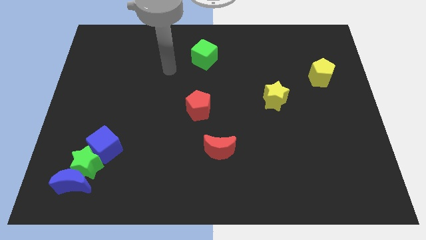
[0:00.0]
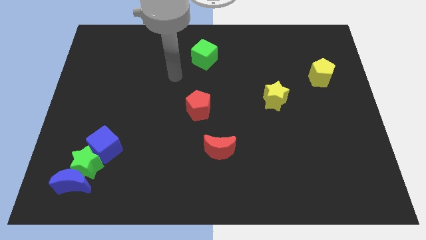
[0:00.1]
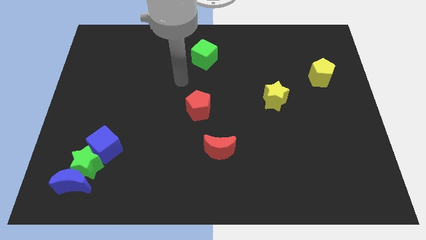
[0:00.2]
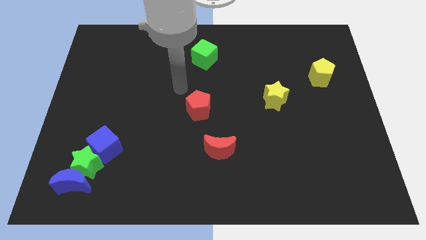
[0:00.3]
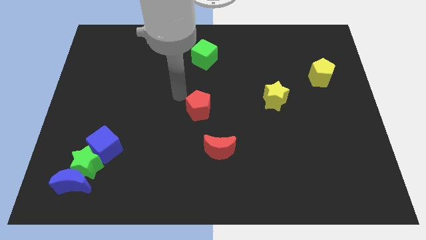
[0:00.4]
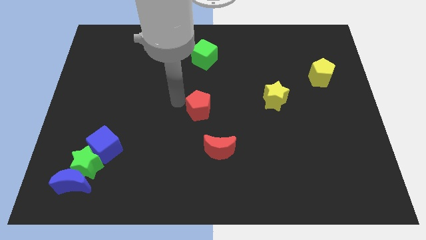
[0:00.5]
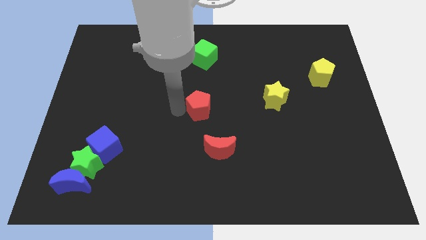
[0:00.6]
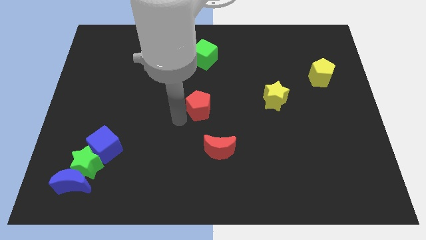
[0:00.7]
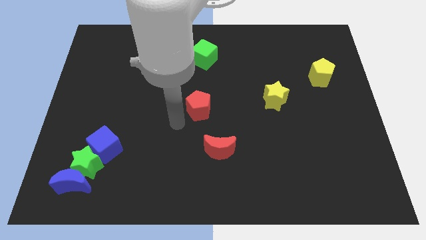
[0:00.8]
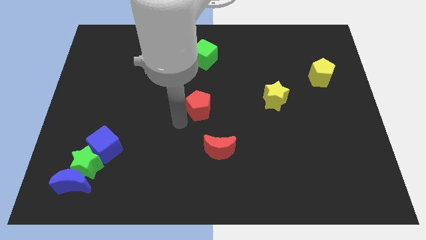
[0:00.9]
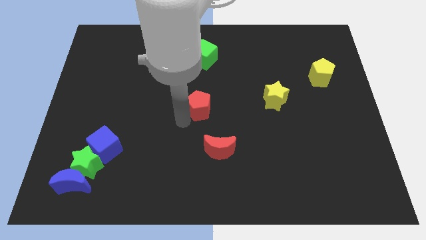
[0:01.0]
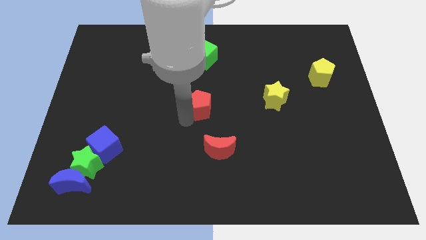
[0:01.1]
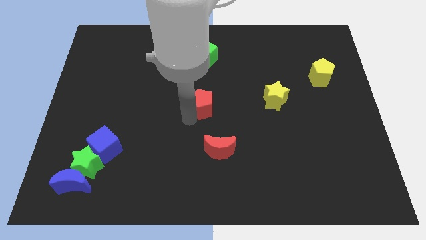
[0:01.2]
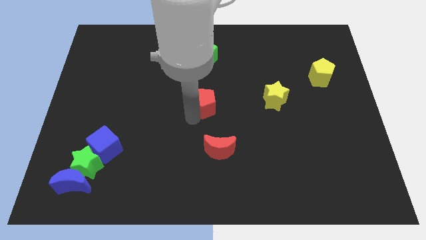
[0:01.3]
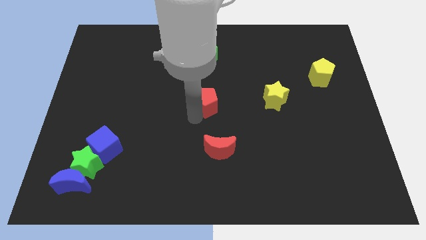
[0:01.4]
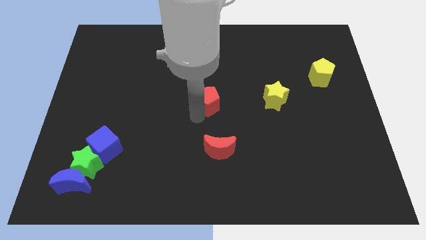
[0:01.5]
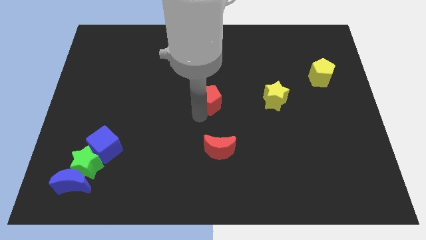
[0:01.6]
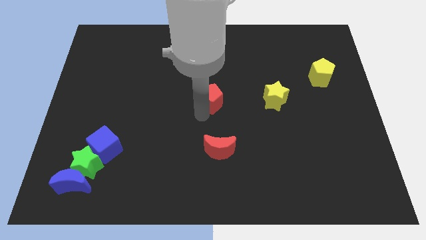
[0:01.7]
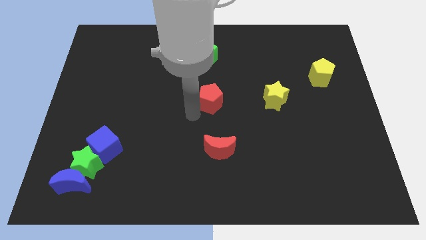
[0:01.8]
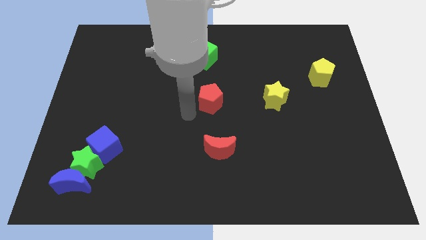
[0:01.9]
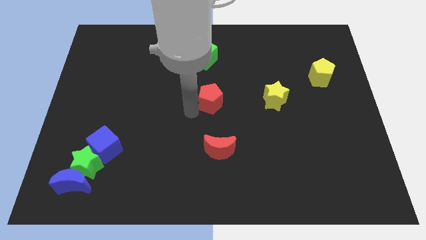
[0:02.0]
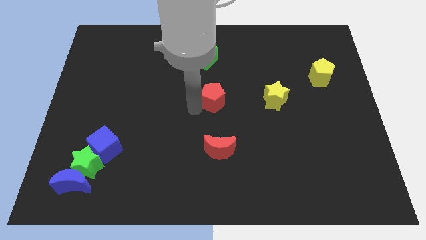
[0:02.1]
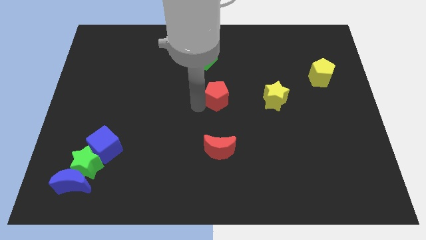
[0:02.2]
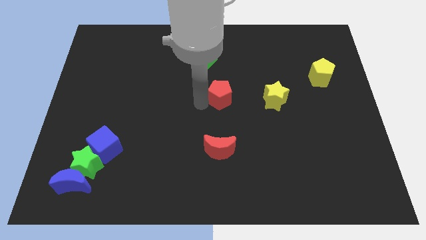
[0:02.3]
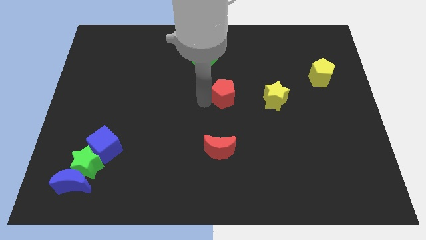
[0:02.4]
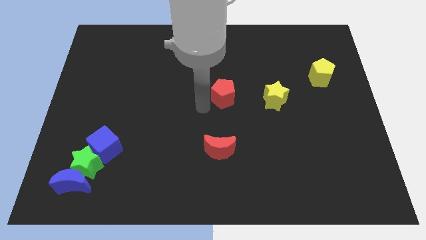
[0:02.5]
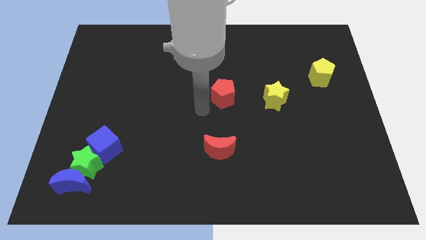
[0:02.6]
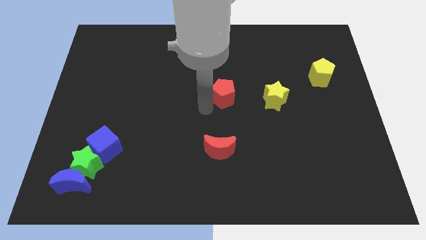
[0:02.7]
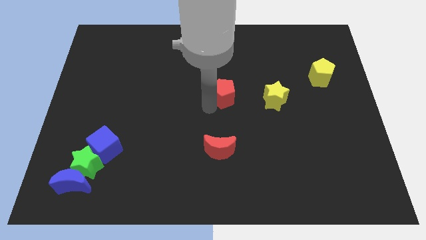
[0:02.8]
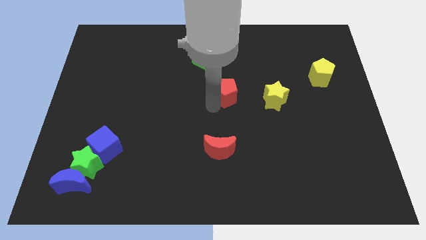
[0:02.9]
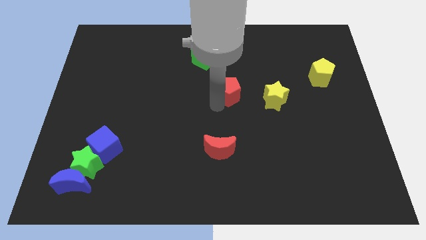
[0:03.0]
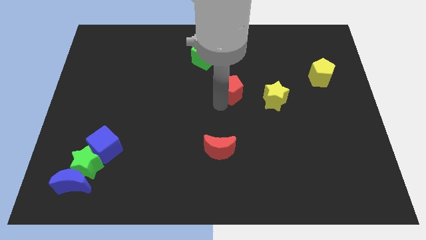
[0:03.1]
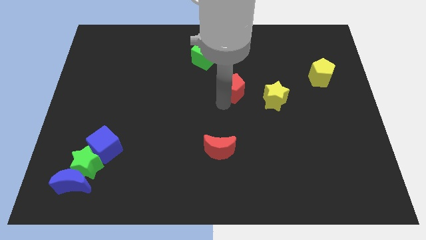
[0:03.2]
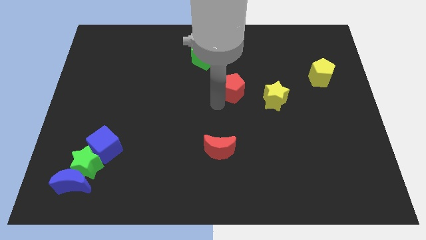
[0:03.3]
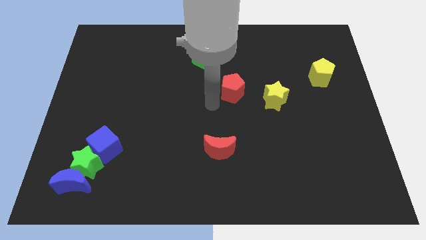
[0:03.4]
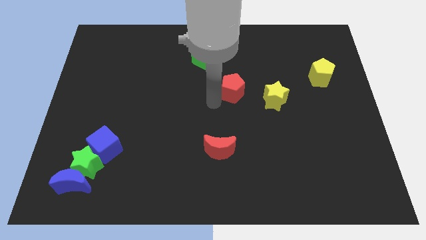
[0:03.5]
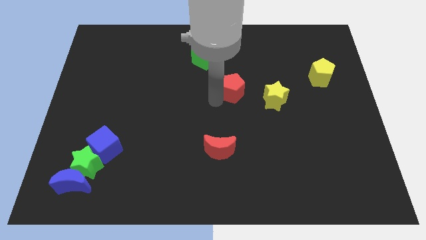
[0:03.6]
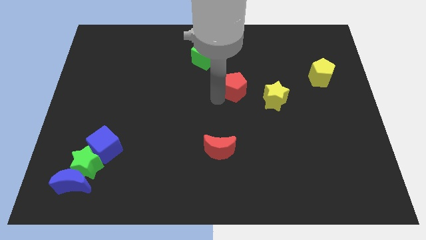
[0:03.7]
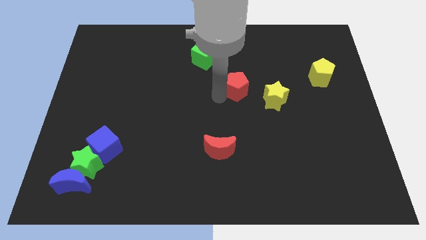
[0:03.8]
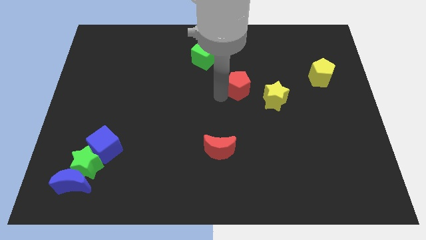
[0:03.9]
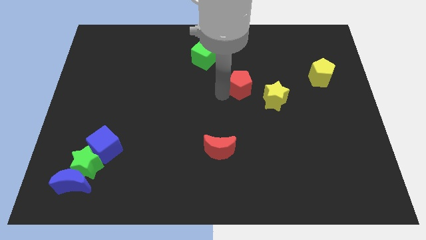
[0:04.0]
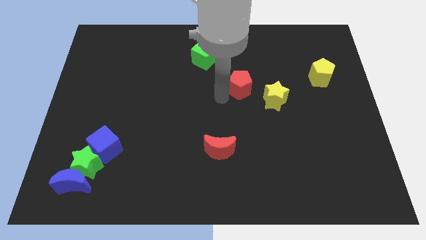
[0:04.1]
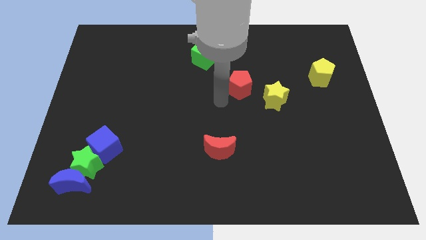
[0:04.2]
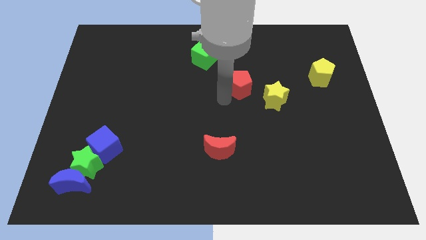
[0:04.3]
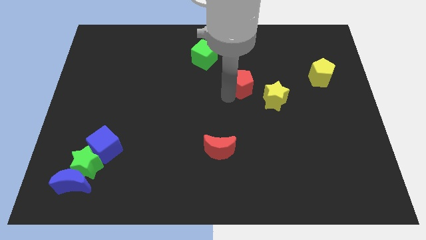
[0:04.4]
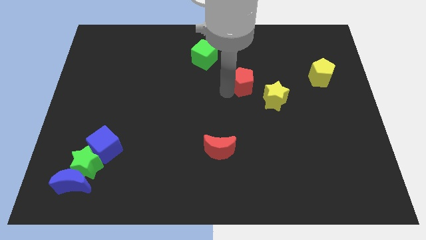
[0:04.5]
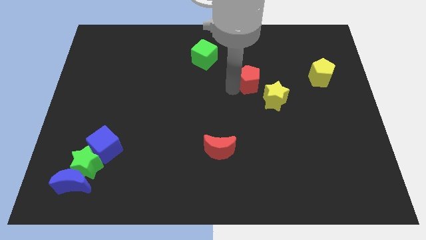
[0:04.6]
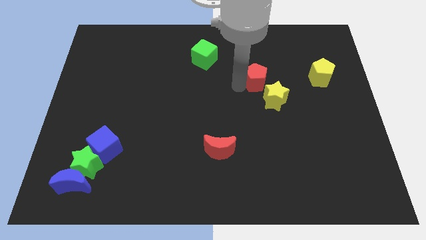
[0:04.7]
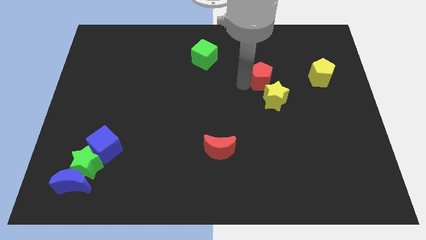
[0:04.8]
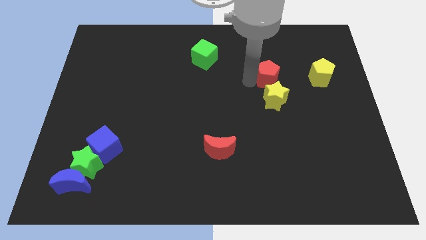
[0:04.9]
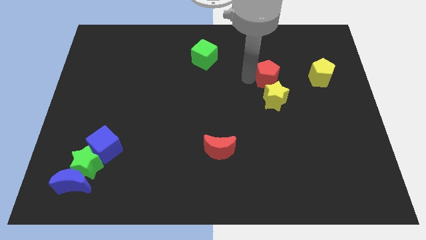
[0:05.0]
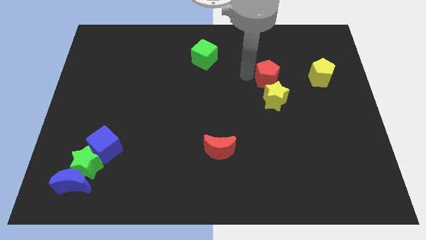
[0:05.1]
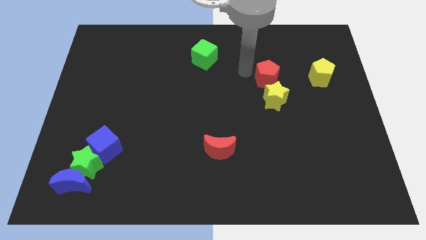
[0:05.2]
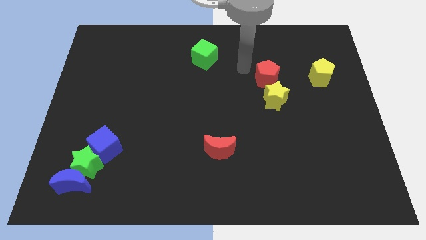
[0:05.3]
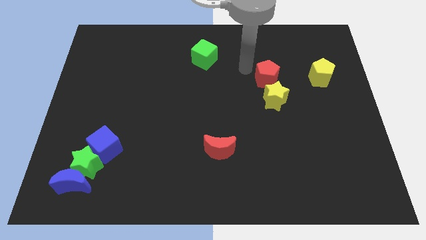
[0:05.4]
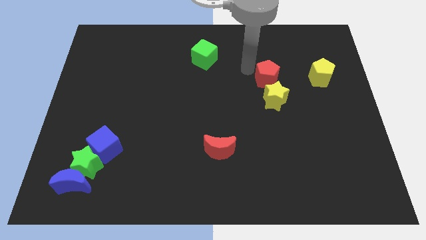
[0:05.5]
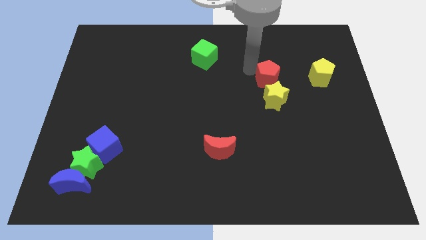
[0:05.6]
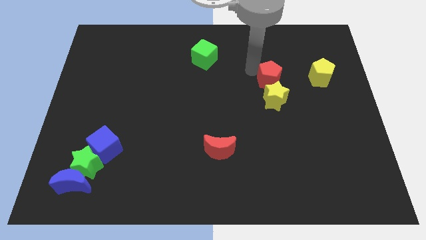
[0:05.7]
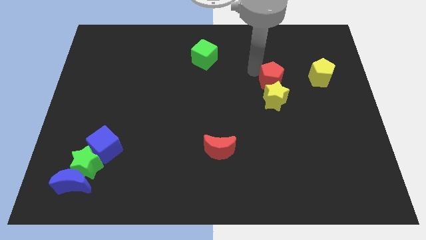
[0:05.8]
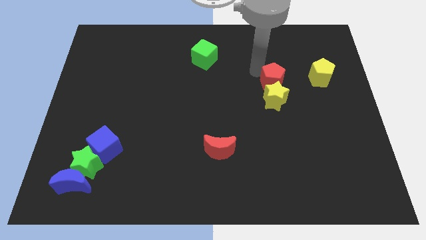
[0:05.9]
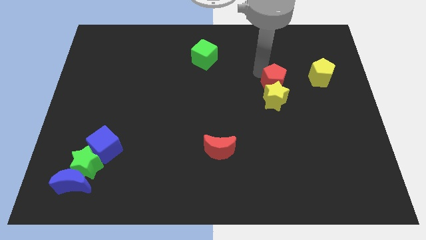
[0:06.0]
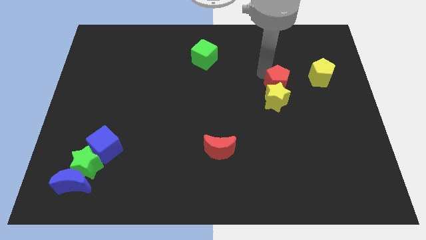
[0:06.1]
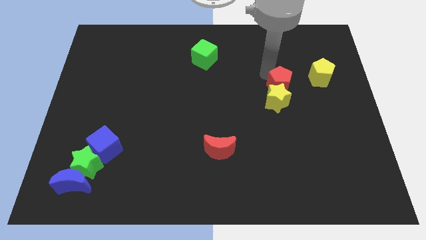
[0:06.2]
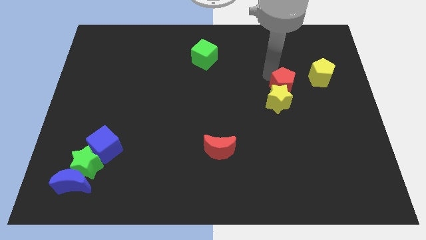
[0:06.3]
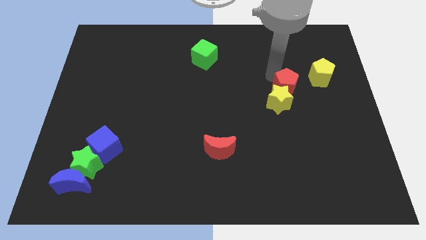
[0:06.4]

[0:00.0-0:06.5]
put the red pentagon diagonally down and to the left of the yellow pentagon

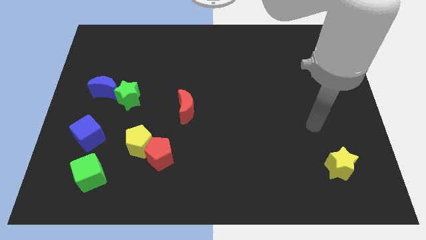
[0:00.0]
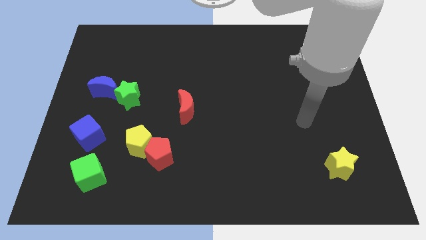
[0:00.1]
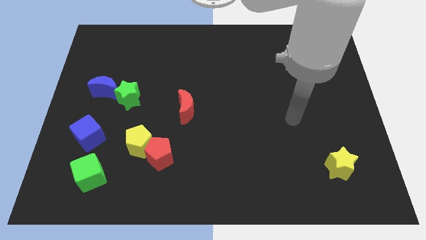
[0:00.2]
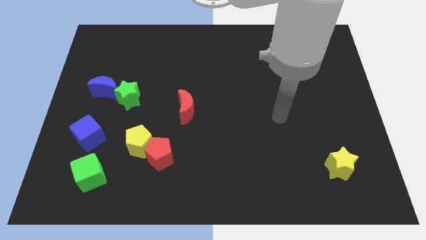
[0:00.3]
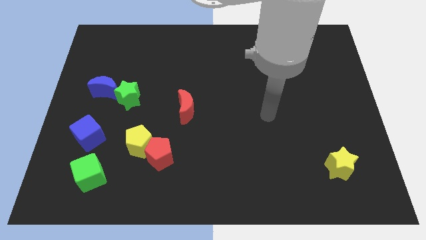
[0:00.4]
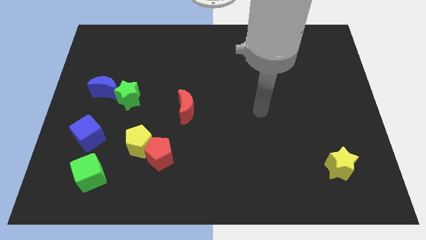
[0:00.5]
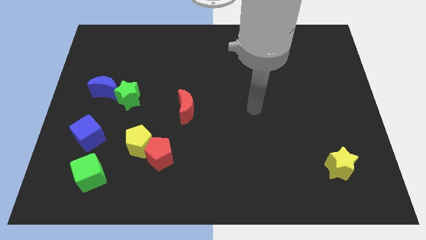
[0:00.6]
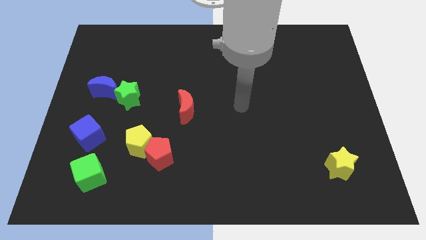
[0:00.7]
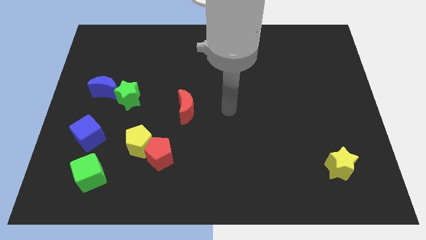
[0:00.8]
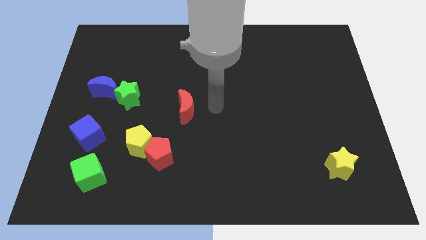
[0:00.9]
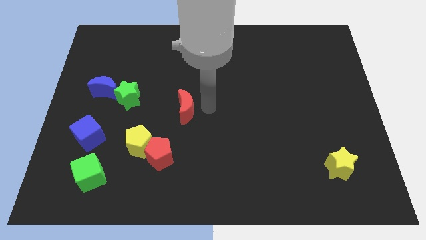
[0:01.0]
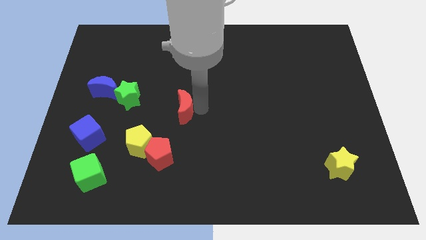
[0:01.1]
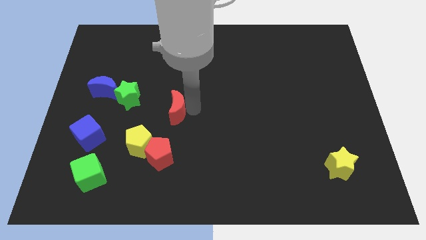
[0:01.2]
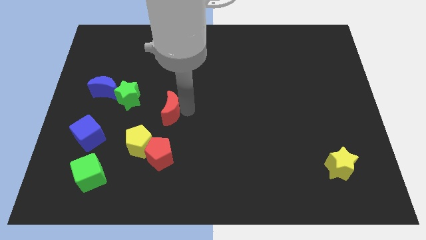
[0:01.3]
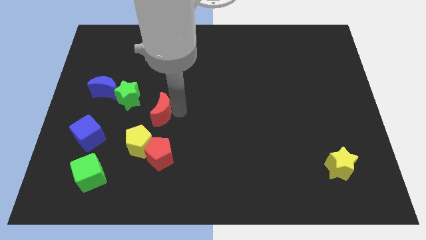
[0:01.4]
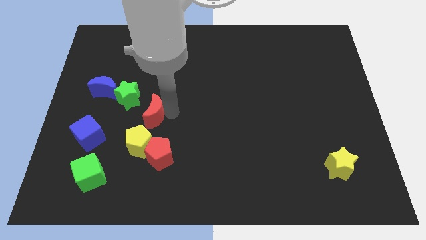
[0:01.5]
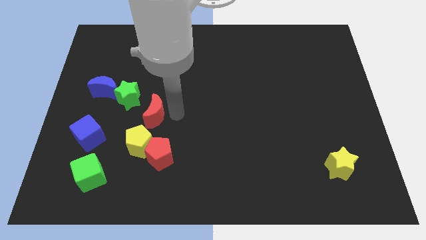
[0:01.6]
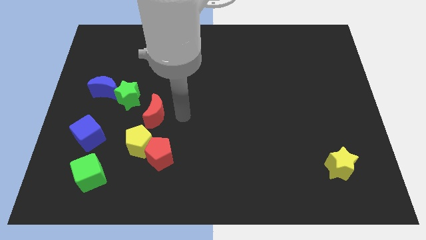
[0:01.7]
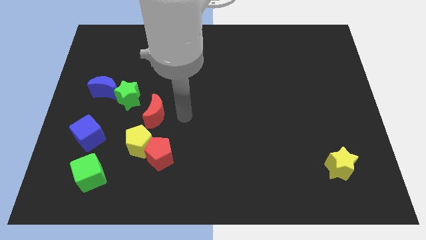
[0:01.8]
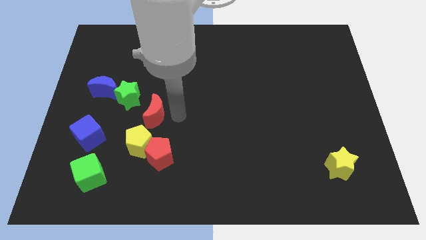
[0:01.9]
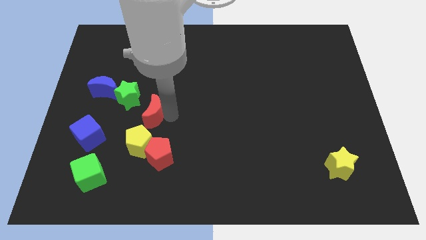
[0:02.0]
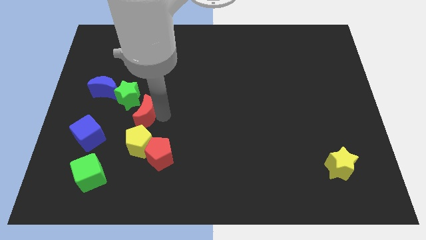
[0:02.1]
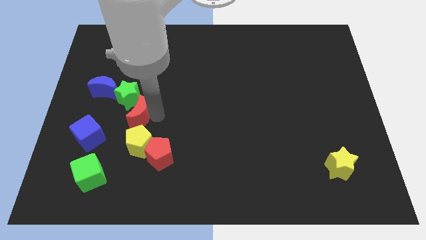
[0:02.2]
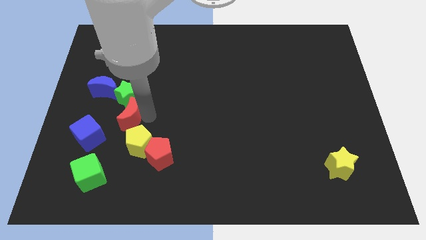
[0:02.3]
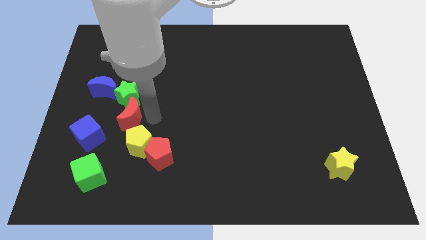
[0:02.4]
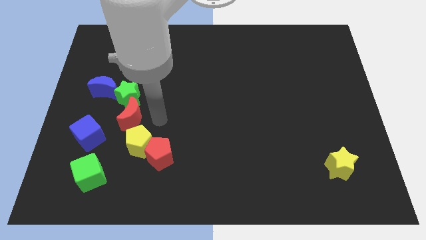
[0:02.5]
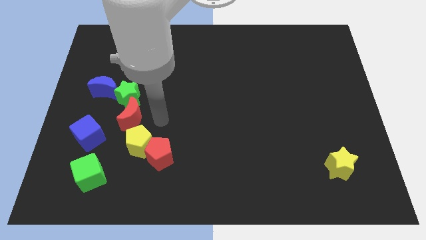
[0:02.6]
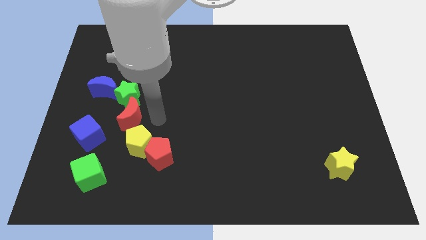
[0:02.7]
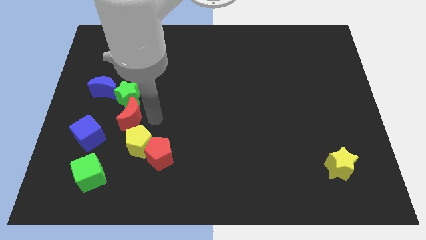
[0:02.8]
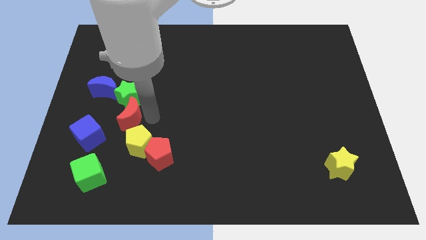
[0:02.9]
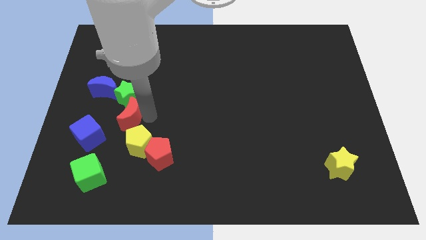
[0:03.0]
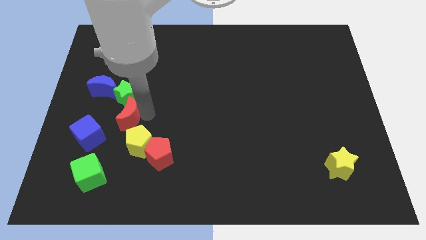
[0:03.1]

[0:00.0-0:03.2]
move the red moon diagonally down and to the left of the green star
